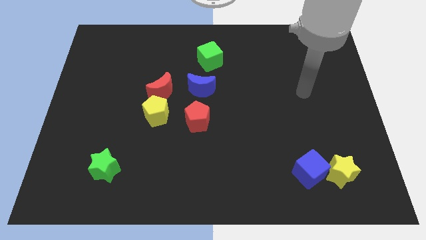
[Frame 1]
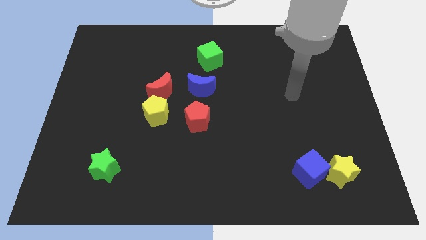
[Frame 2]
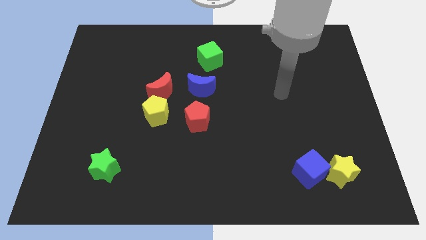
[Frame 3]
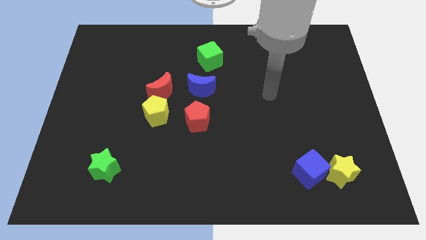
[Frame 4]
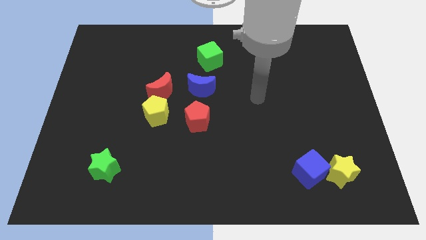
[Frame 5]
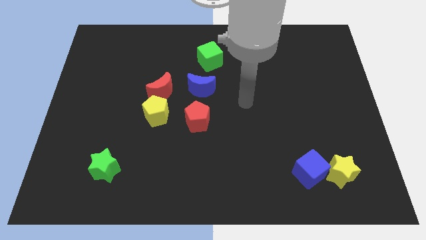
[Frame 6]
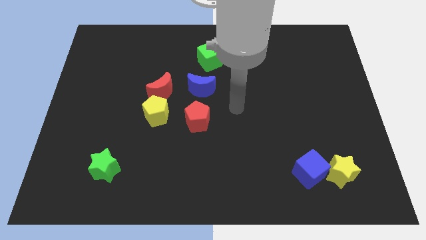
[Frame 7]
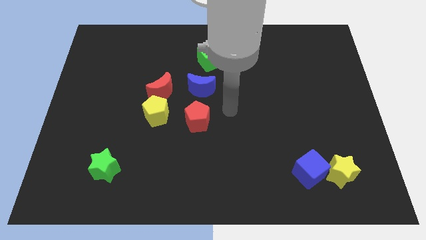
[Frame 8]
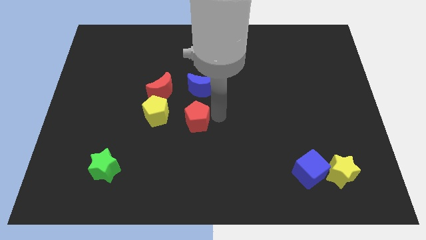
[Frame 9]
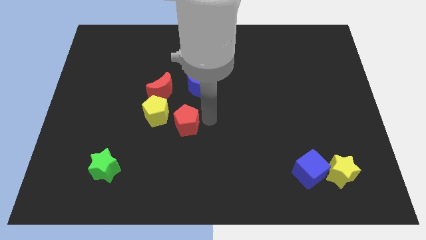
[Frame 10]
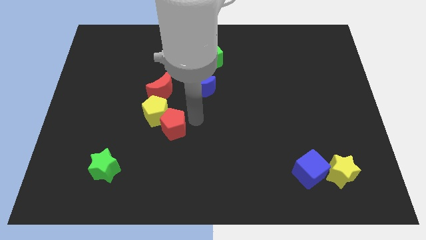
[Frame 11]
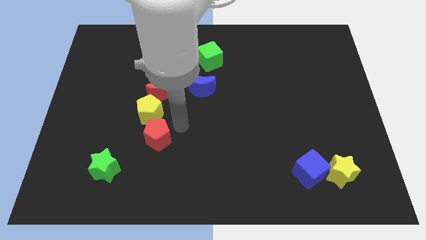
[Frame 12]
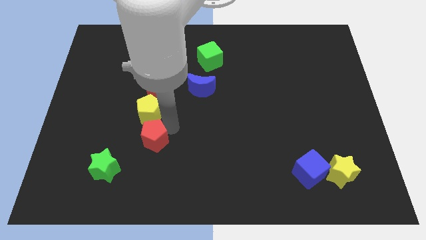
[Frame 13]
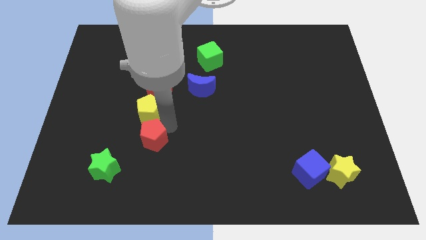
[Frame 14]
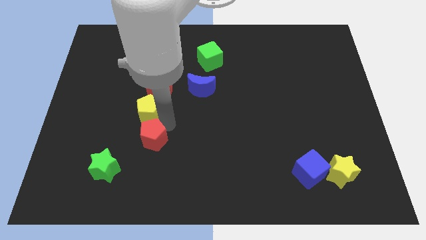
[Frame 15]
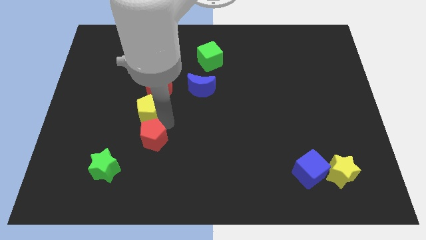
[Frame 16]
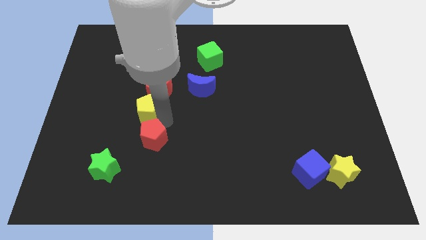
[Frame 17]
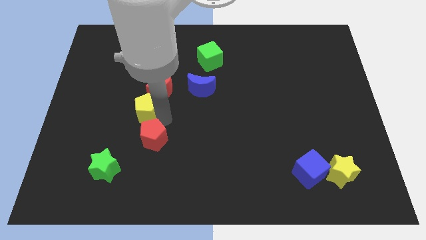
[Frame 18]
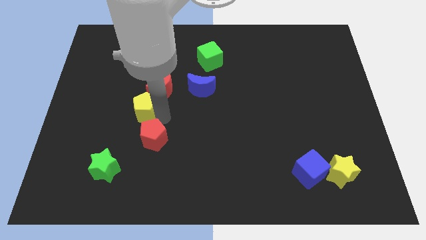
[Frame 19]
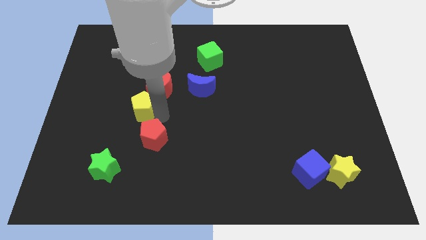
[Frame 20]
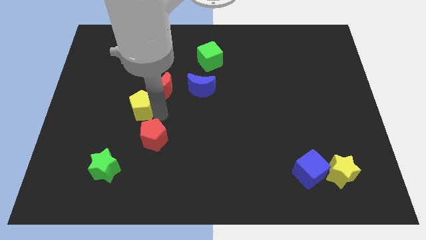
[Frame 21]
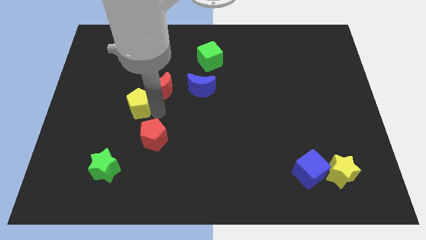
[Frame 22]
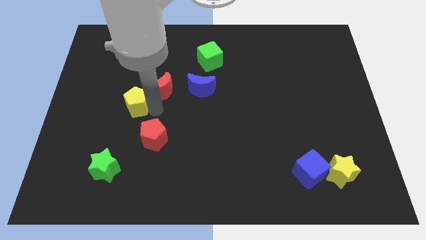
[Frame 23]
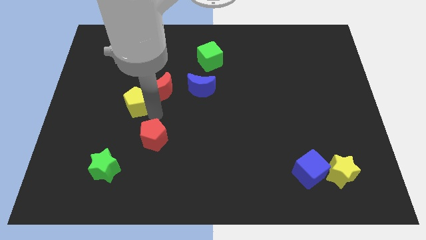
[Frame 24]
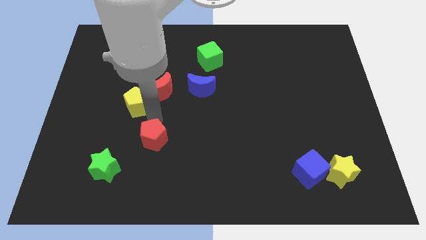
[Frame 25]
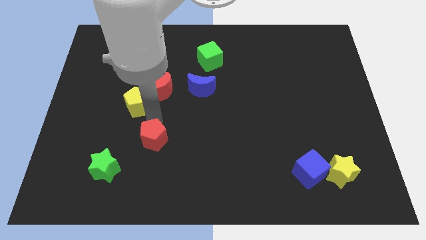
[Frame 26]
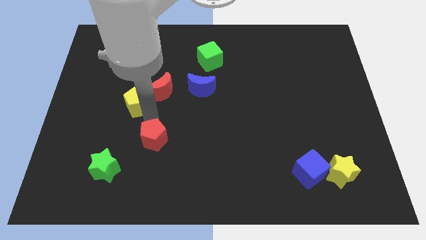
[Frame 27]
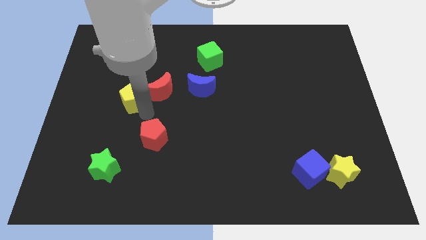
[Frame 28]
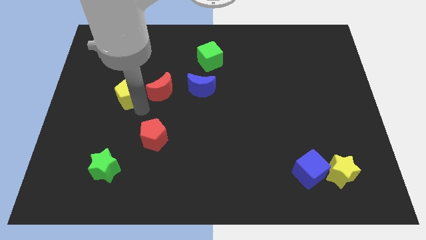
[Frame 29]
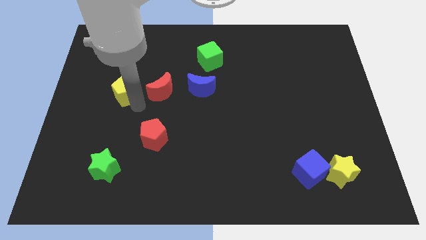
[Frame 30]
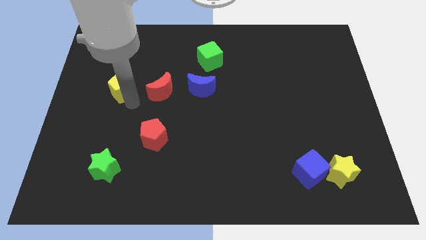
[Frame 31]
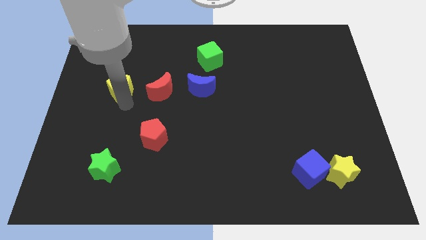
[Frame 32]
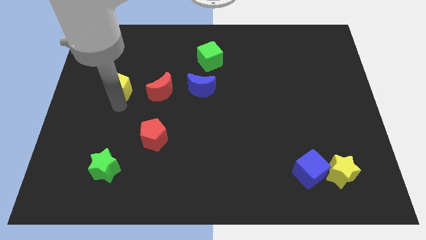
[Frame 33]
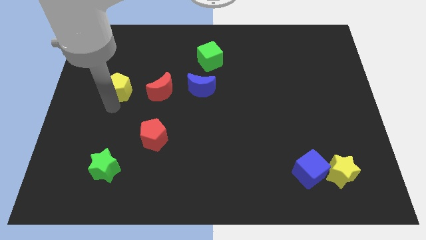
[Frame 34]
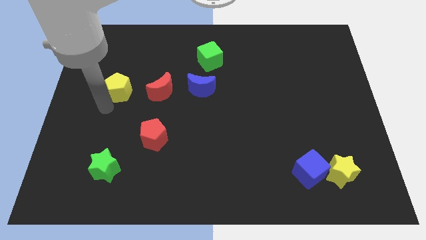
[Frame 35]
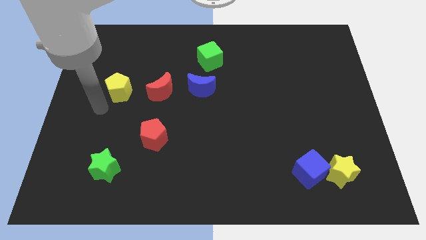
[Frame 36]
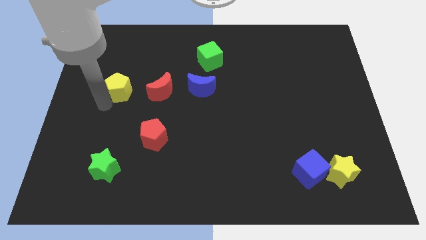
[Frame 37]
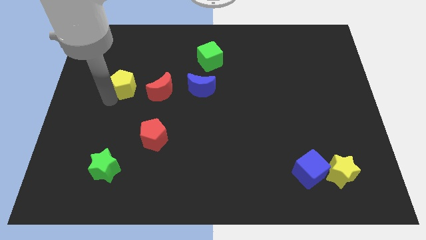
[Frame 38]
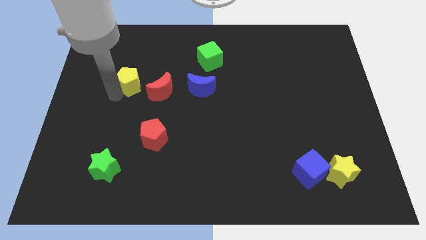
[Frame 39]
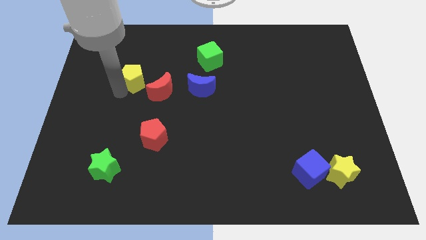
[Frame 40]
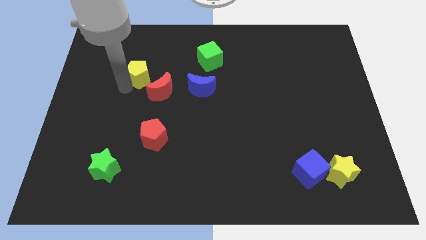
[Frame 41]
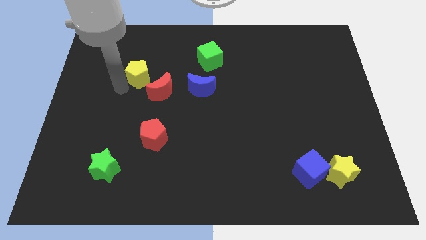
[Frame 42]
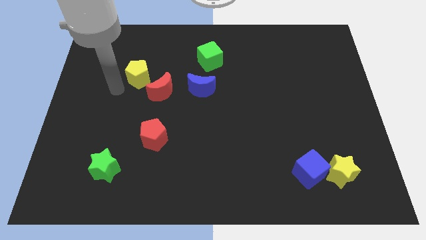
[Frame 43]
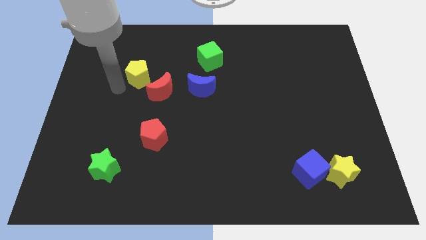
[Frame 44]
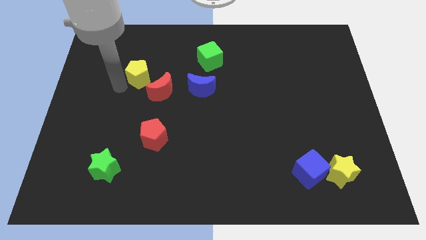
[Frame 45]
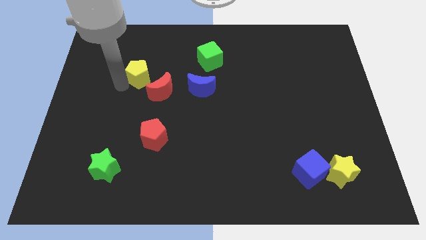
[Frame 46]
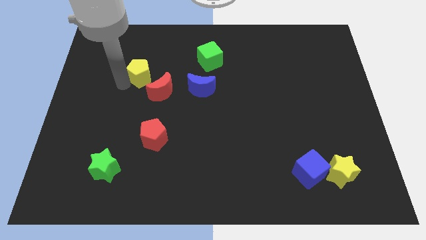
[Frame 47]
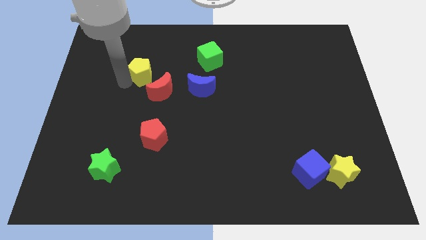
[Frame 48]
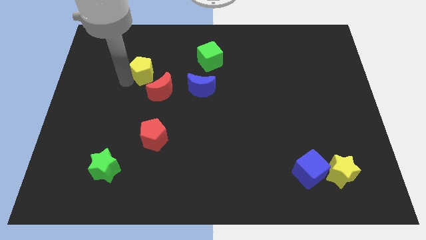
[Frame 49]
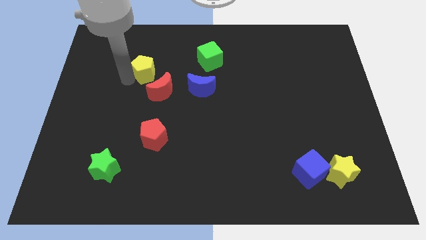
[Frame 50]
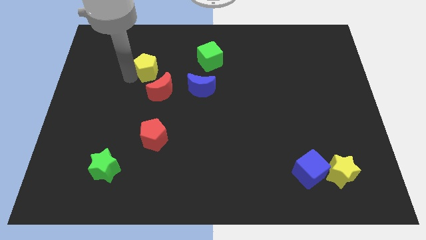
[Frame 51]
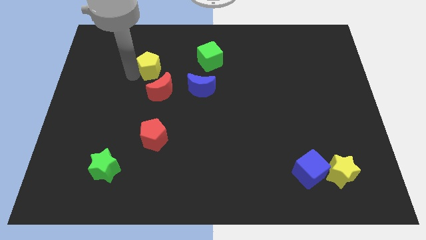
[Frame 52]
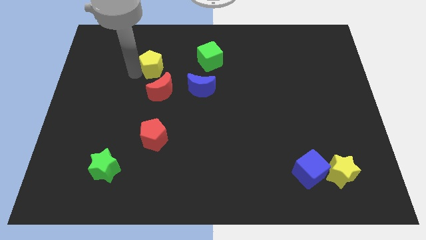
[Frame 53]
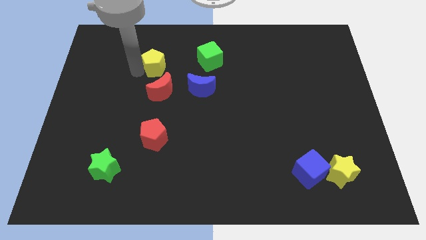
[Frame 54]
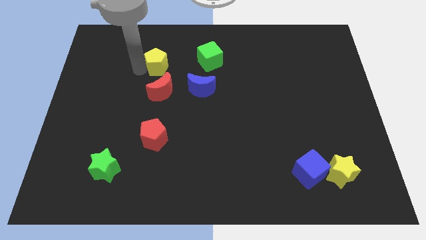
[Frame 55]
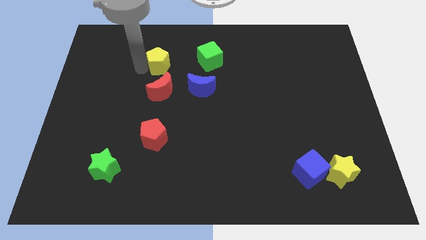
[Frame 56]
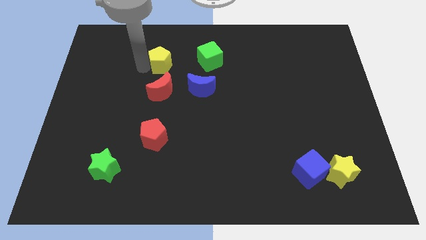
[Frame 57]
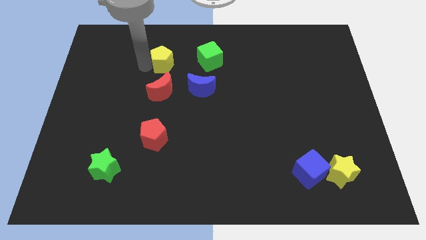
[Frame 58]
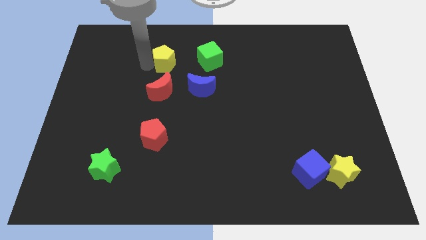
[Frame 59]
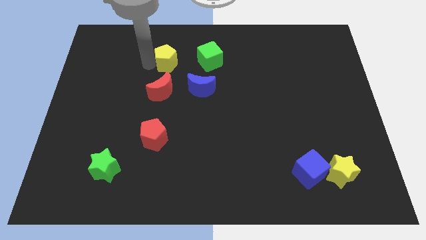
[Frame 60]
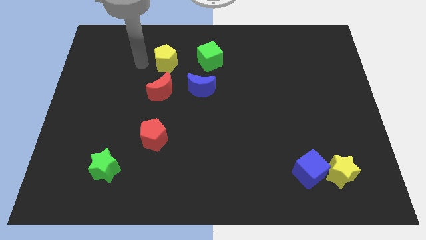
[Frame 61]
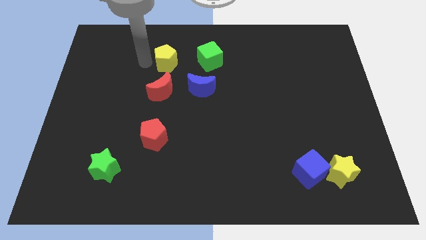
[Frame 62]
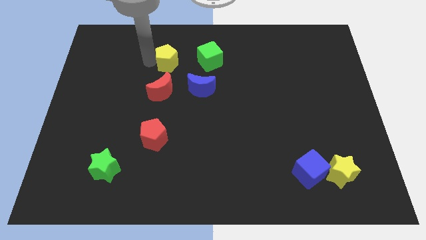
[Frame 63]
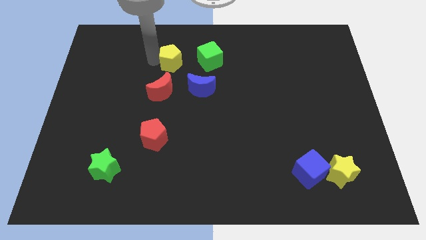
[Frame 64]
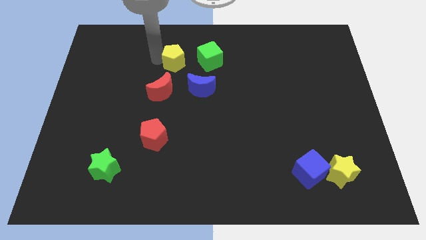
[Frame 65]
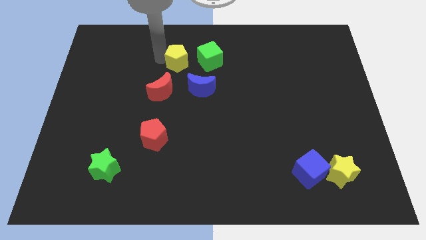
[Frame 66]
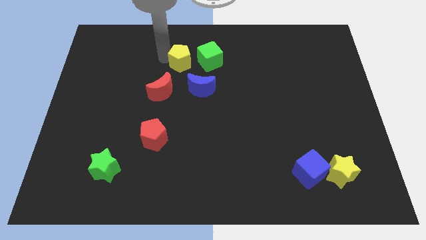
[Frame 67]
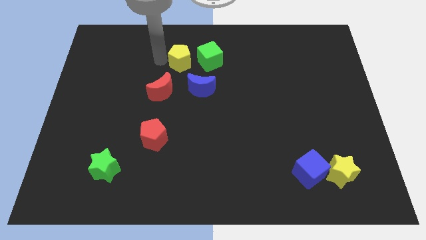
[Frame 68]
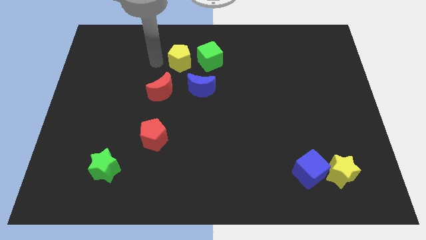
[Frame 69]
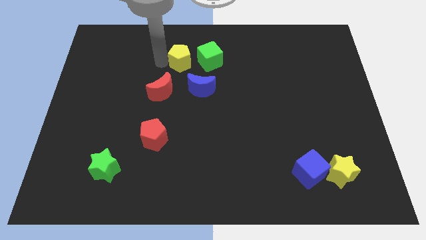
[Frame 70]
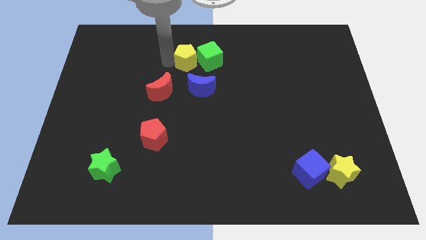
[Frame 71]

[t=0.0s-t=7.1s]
slide the yellow pentagon close to the green cube

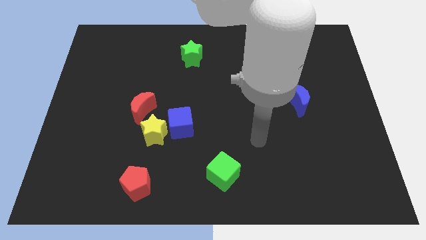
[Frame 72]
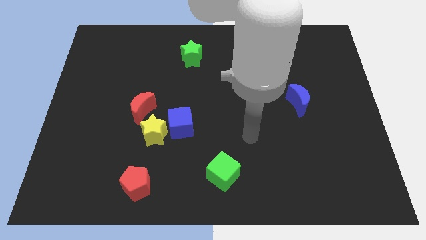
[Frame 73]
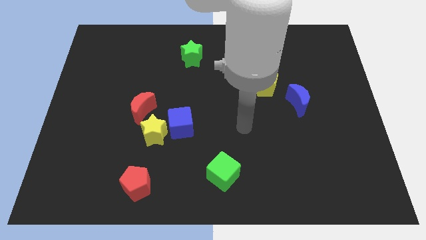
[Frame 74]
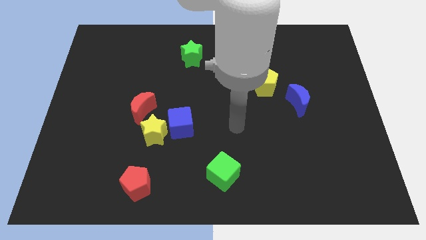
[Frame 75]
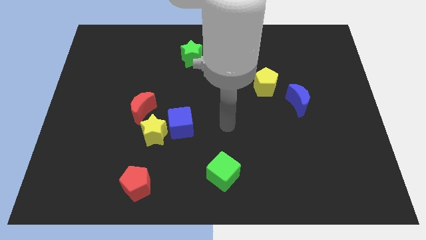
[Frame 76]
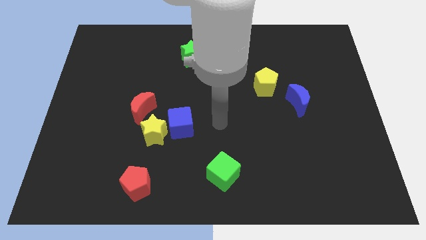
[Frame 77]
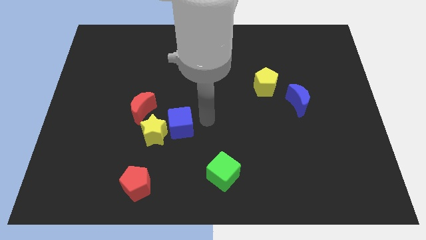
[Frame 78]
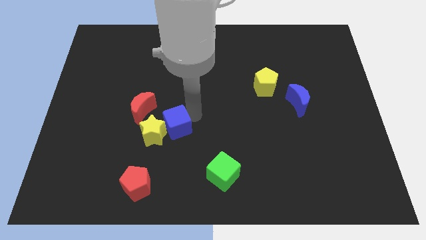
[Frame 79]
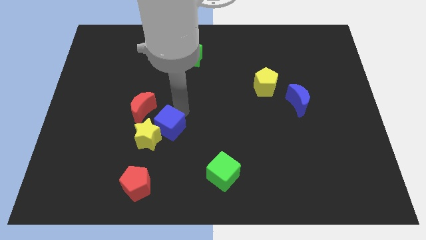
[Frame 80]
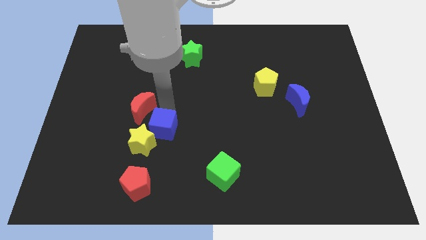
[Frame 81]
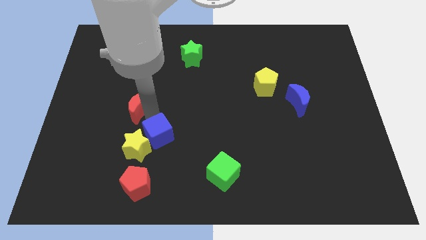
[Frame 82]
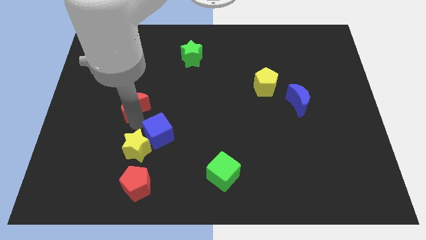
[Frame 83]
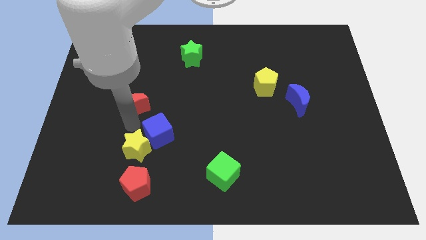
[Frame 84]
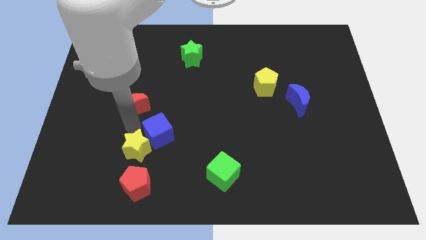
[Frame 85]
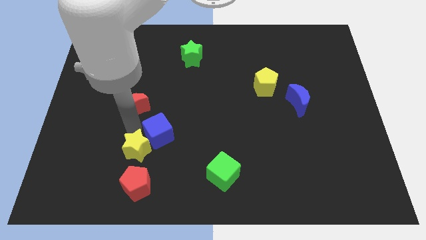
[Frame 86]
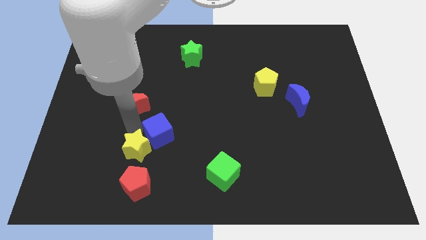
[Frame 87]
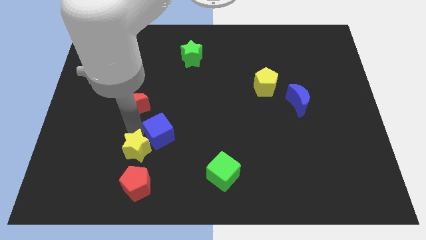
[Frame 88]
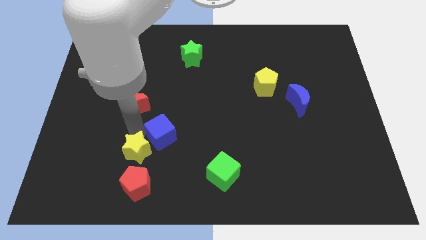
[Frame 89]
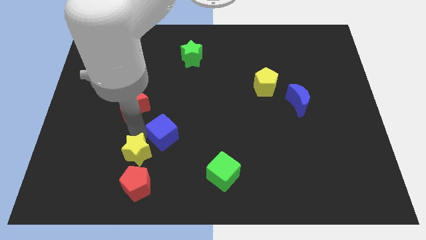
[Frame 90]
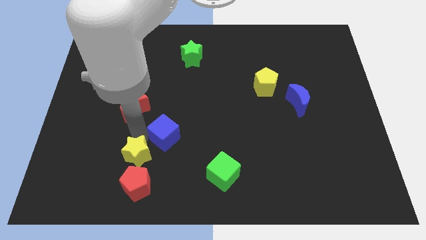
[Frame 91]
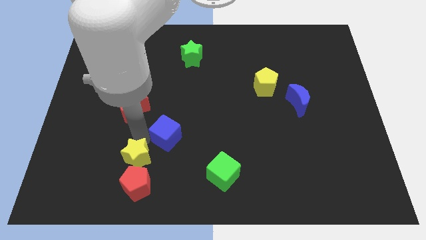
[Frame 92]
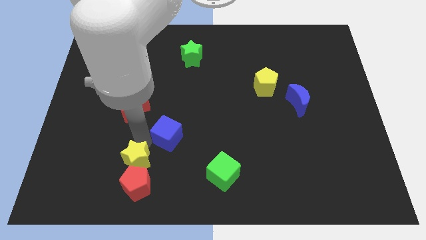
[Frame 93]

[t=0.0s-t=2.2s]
move the yellow star towards the red pentagon
